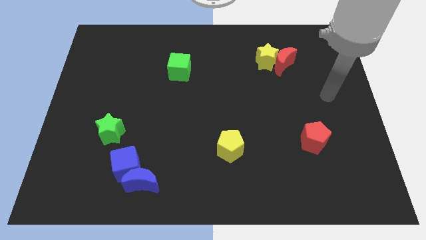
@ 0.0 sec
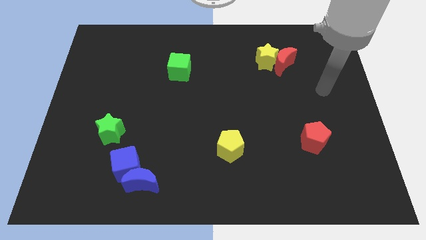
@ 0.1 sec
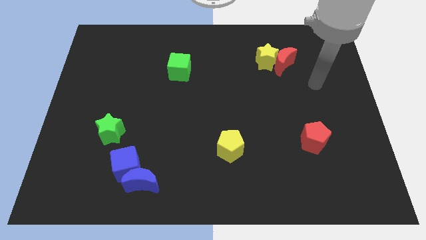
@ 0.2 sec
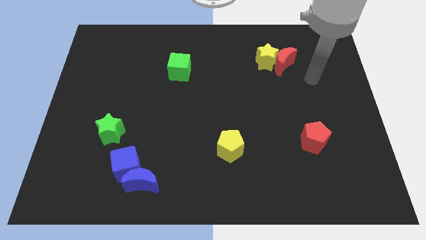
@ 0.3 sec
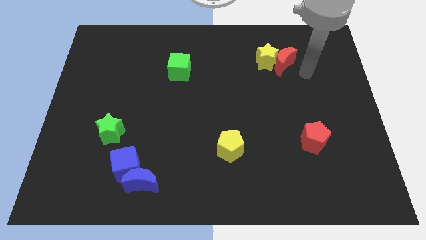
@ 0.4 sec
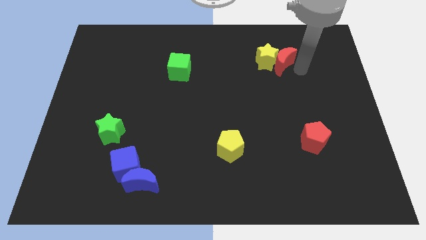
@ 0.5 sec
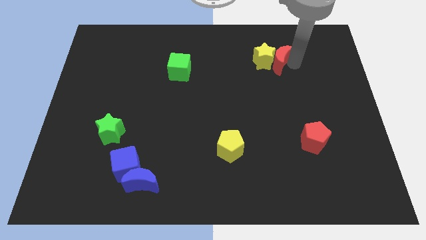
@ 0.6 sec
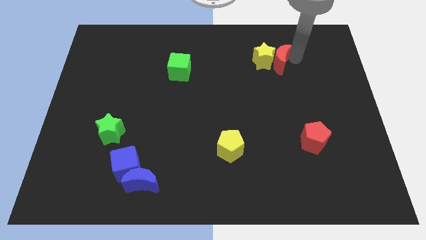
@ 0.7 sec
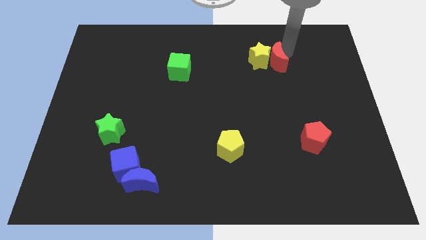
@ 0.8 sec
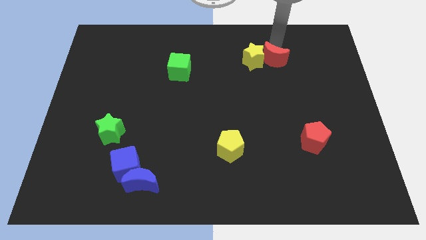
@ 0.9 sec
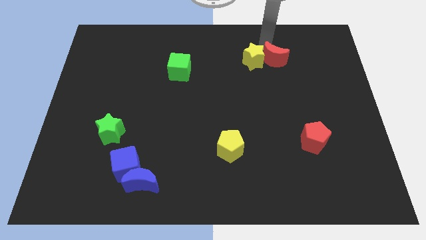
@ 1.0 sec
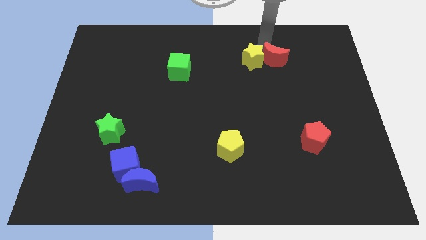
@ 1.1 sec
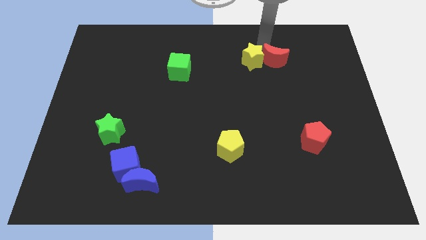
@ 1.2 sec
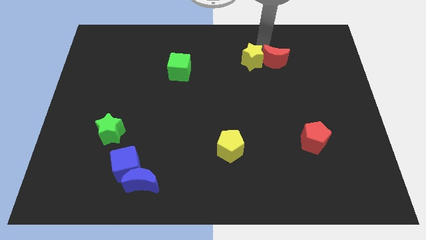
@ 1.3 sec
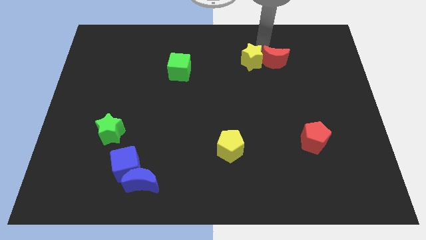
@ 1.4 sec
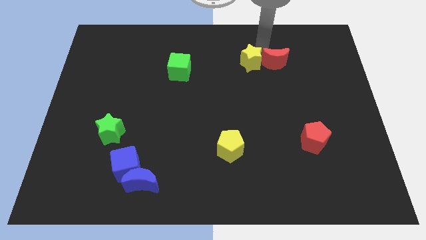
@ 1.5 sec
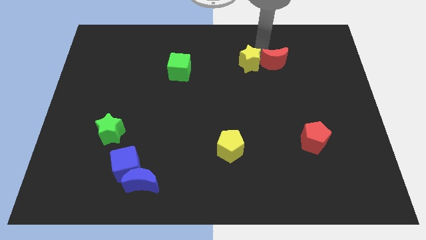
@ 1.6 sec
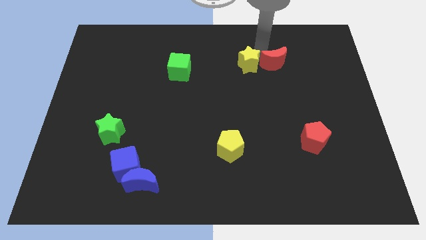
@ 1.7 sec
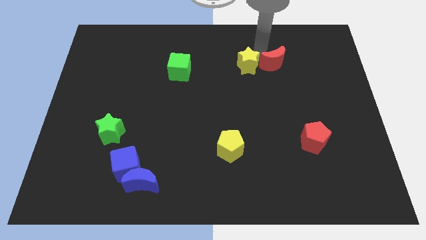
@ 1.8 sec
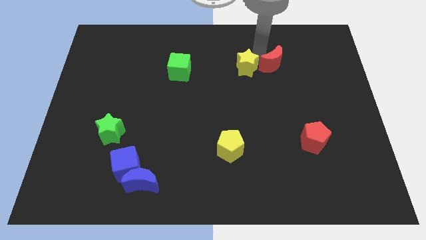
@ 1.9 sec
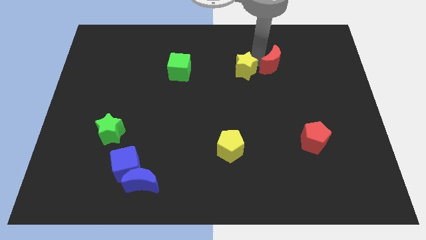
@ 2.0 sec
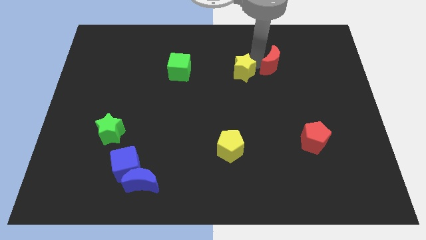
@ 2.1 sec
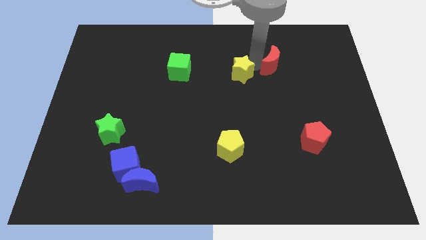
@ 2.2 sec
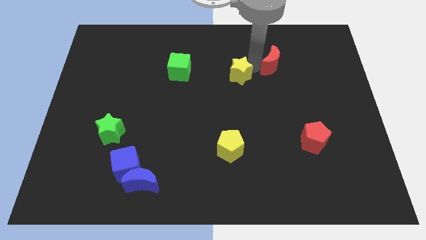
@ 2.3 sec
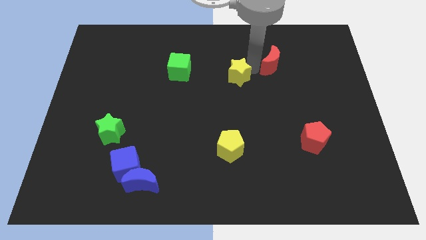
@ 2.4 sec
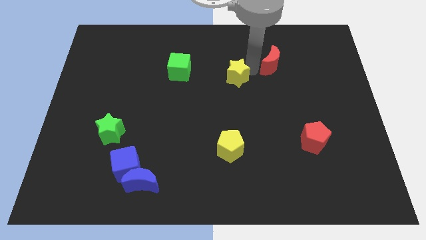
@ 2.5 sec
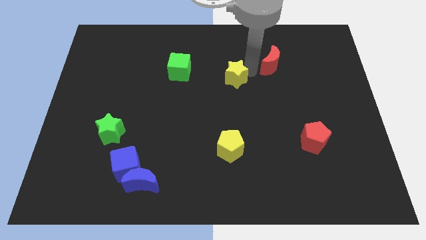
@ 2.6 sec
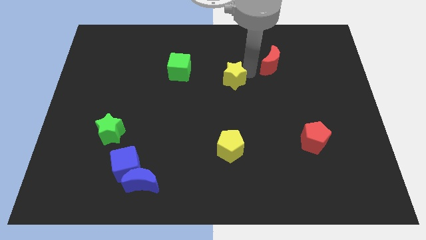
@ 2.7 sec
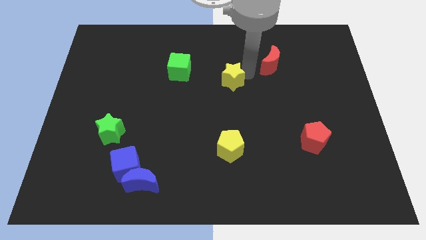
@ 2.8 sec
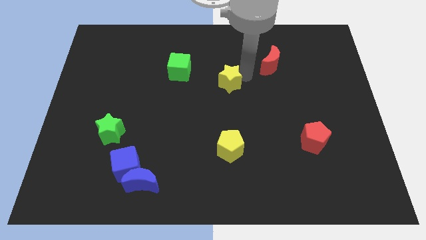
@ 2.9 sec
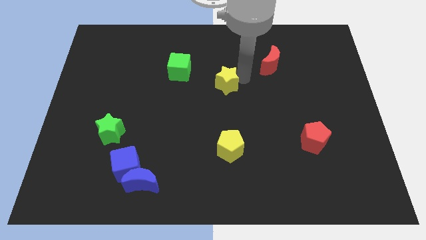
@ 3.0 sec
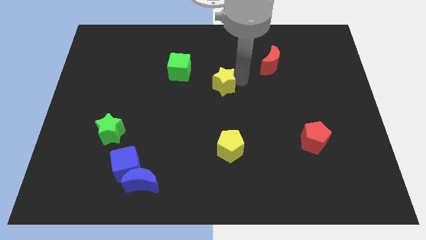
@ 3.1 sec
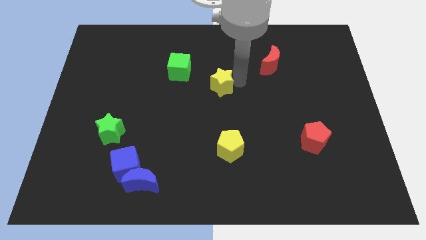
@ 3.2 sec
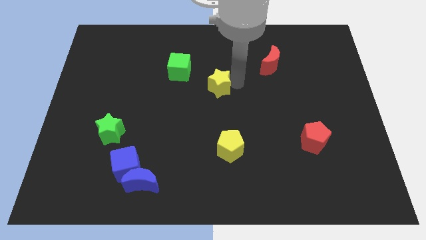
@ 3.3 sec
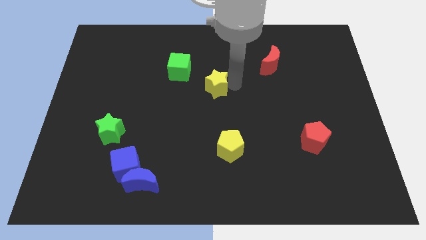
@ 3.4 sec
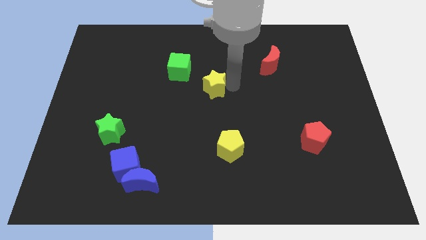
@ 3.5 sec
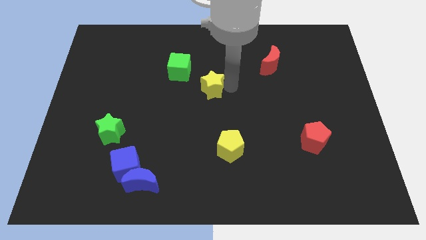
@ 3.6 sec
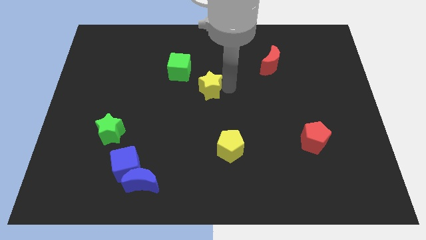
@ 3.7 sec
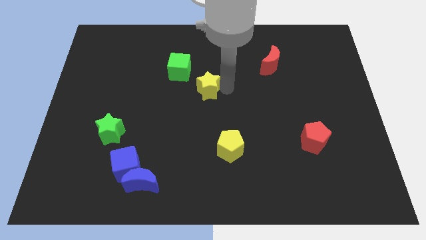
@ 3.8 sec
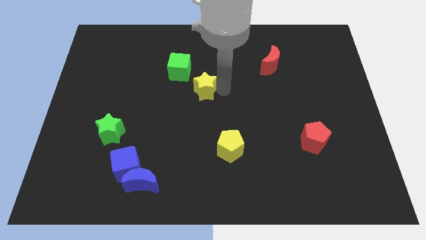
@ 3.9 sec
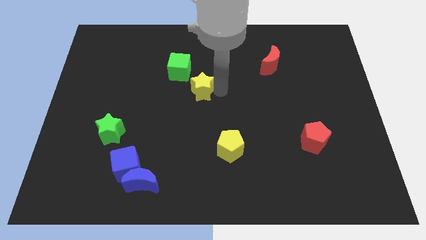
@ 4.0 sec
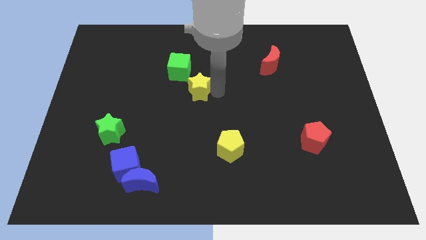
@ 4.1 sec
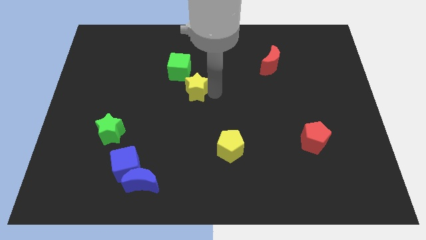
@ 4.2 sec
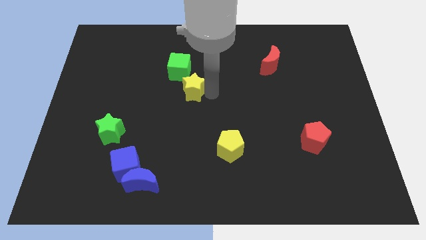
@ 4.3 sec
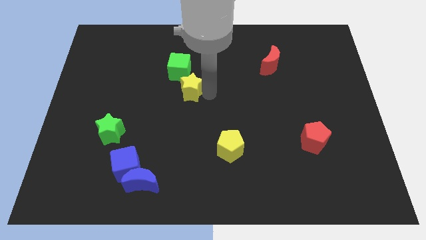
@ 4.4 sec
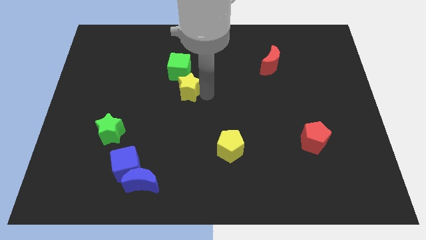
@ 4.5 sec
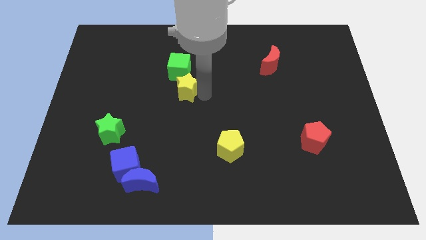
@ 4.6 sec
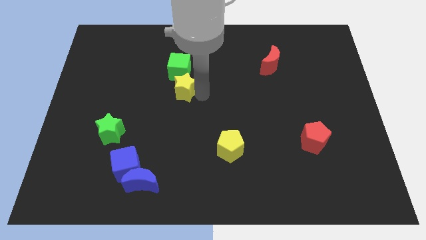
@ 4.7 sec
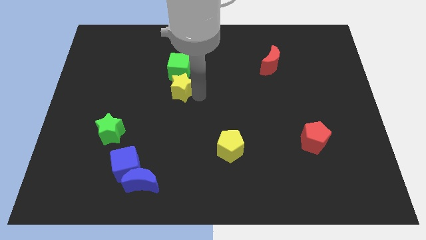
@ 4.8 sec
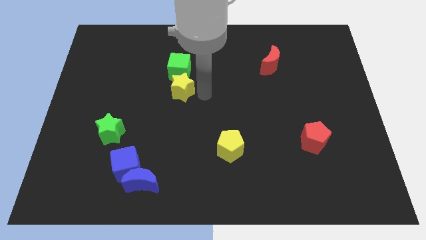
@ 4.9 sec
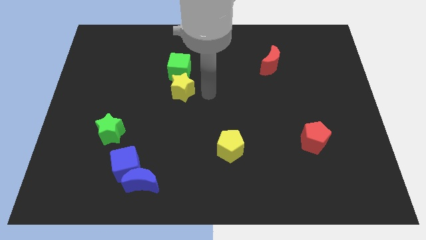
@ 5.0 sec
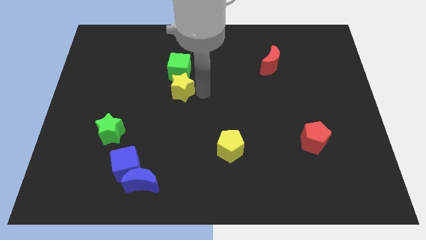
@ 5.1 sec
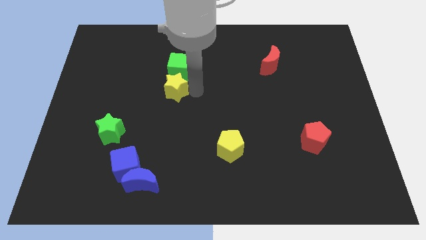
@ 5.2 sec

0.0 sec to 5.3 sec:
slide the yellow star diagonally down and to the left of the green cube

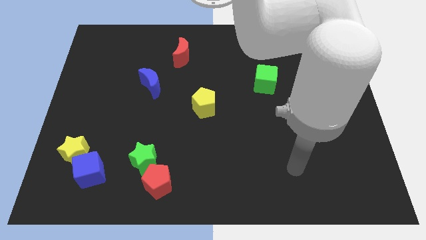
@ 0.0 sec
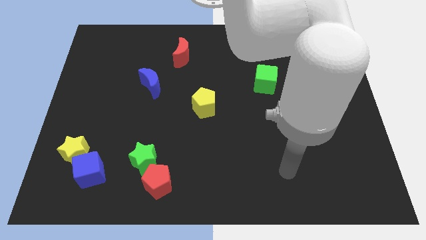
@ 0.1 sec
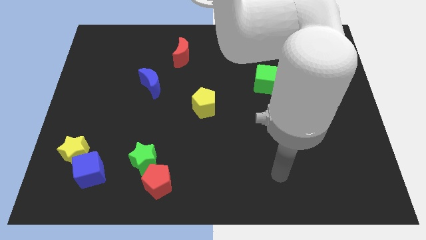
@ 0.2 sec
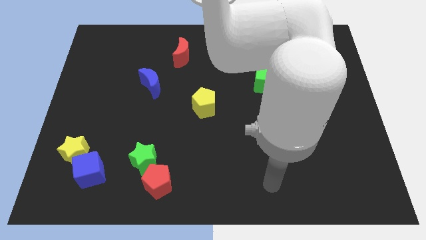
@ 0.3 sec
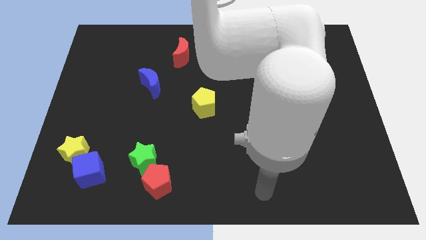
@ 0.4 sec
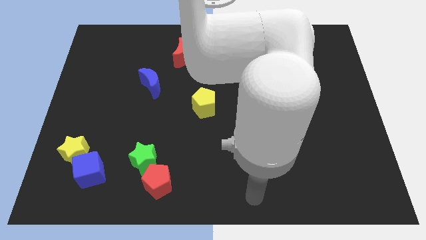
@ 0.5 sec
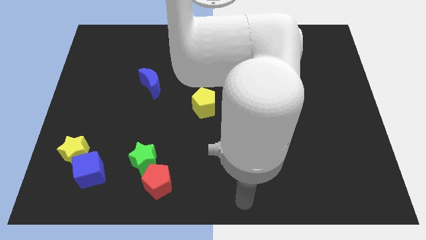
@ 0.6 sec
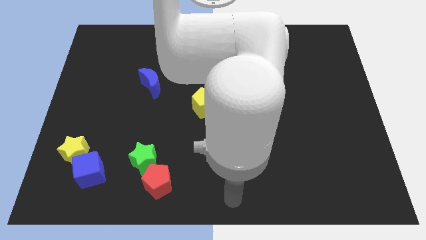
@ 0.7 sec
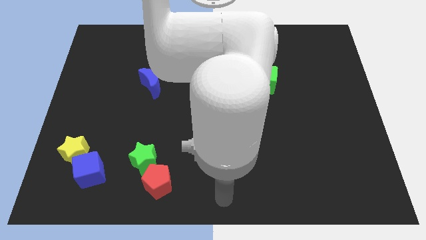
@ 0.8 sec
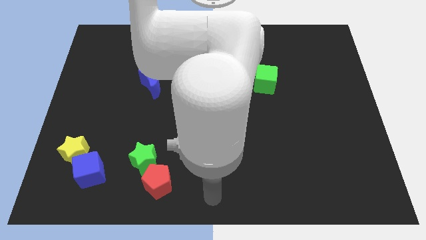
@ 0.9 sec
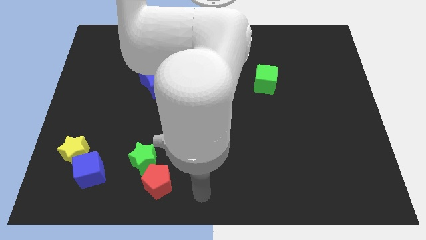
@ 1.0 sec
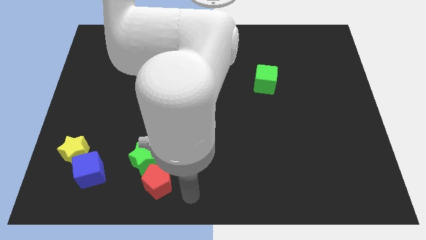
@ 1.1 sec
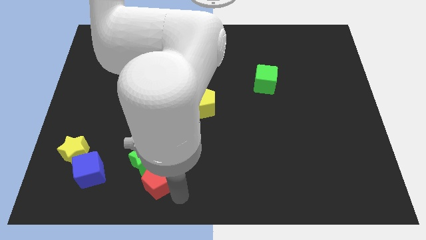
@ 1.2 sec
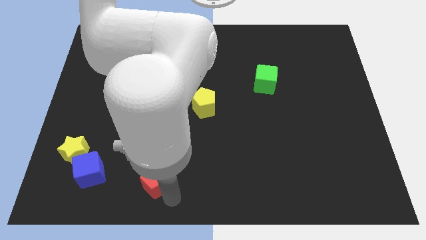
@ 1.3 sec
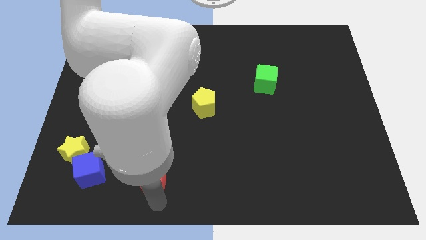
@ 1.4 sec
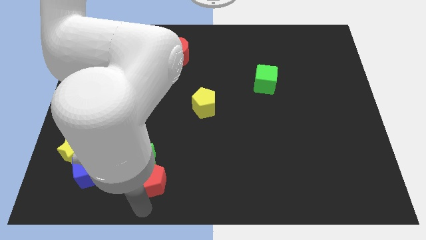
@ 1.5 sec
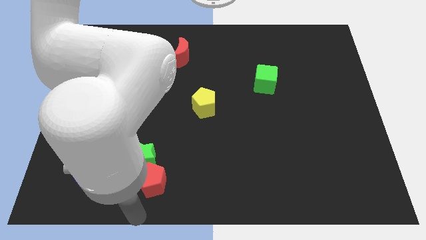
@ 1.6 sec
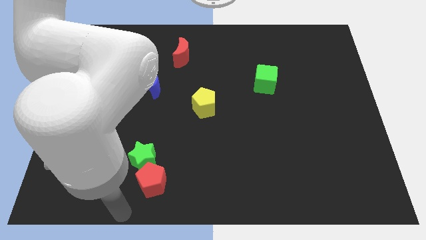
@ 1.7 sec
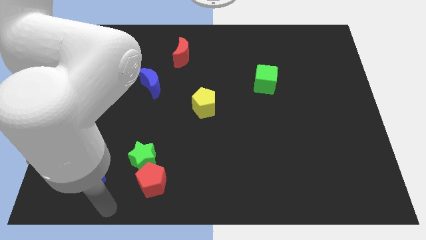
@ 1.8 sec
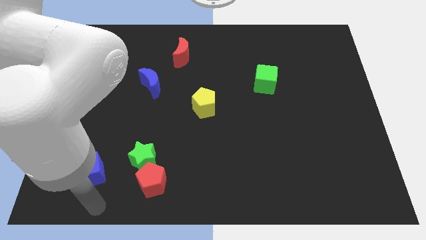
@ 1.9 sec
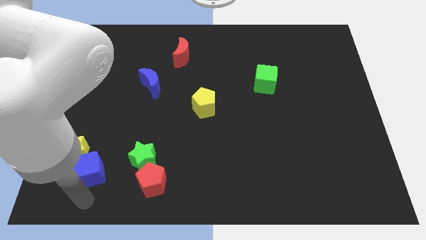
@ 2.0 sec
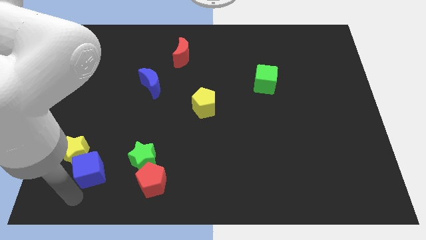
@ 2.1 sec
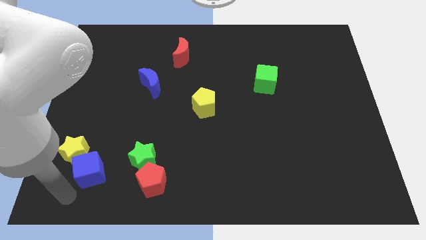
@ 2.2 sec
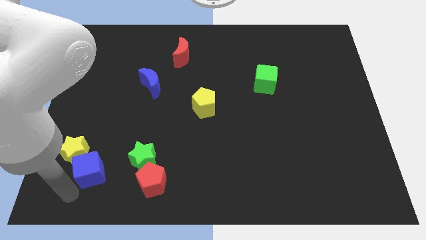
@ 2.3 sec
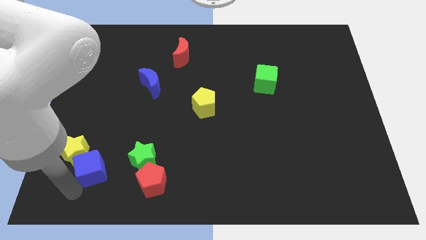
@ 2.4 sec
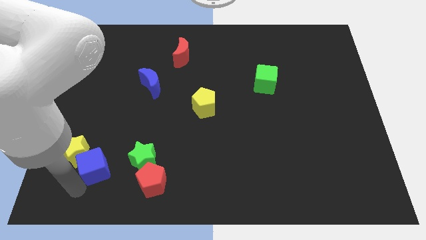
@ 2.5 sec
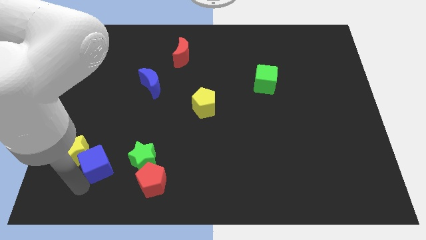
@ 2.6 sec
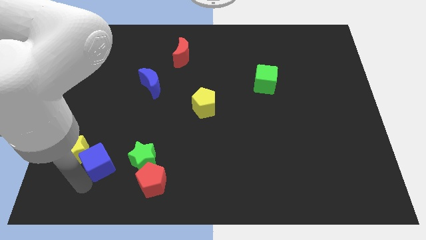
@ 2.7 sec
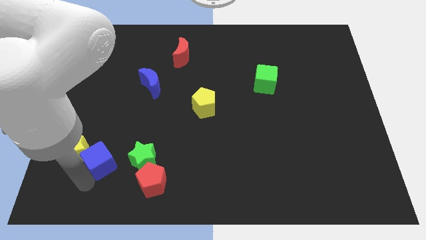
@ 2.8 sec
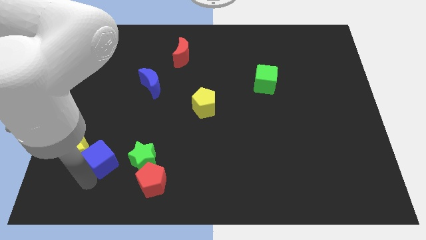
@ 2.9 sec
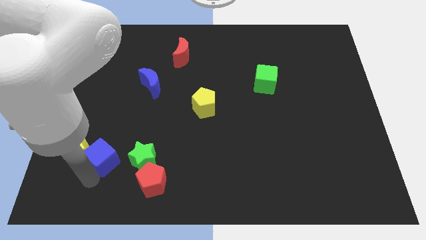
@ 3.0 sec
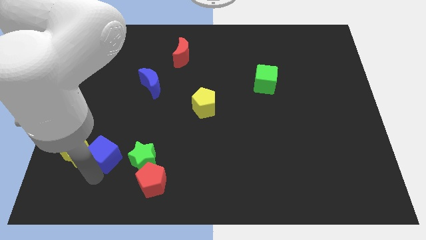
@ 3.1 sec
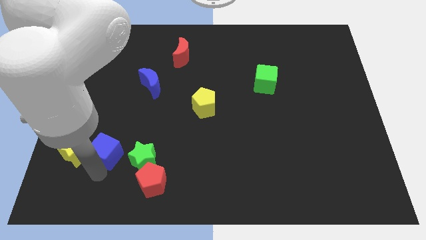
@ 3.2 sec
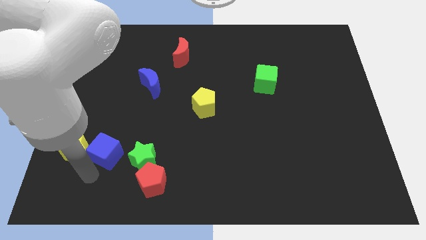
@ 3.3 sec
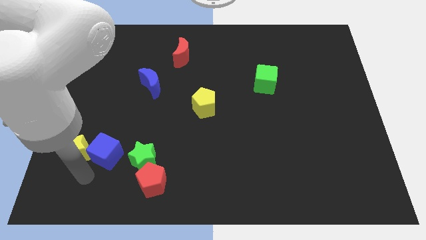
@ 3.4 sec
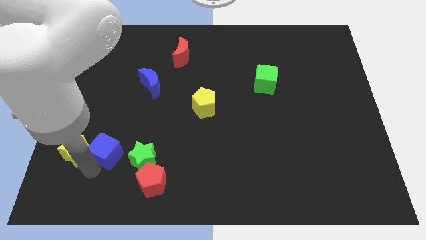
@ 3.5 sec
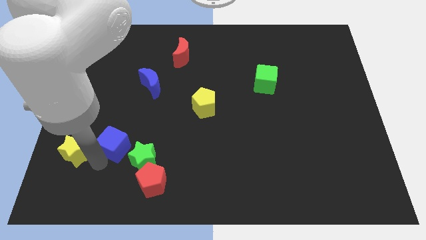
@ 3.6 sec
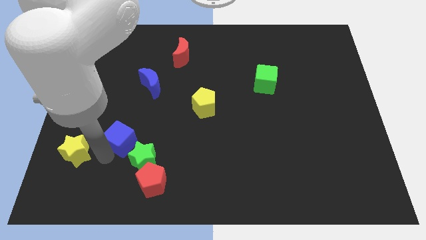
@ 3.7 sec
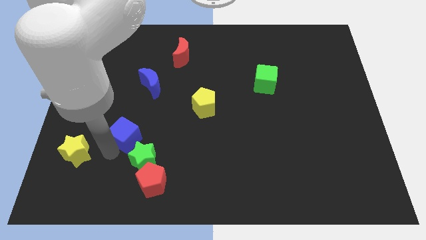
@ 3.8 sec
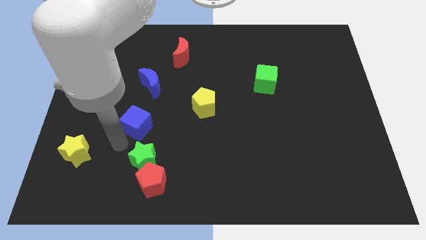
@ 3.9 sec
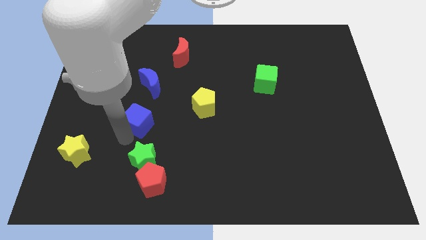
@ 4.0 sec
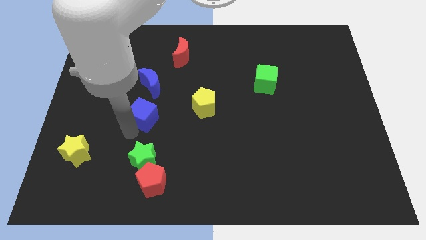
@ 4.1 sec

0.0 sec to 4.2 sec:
put the blue cube to the left side of the yellow pentagon
